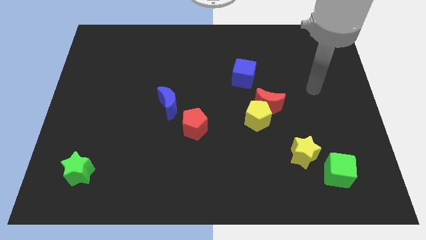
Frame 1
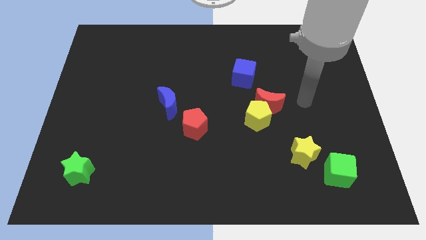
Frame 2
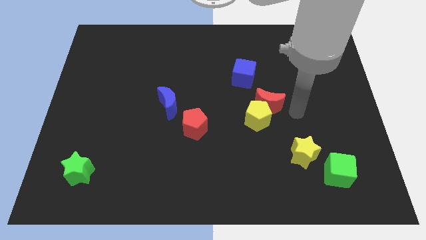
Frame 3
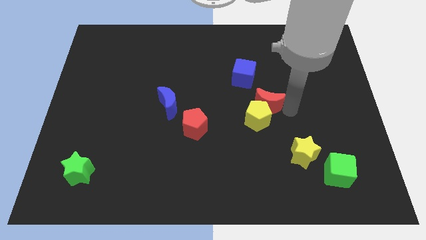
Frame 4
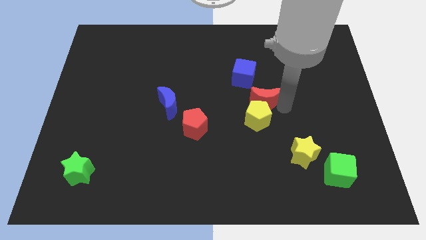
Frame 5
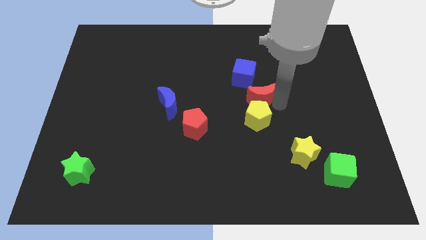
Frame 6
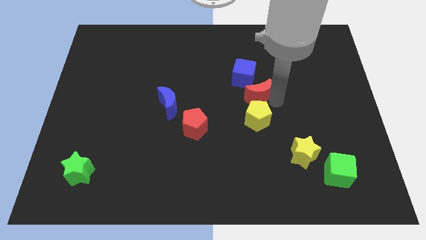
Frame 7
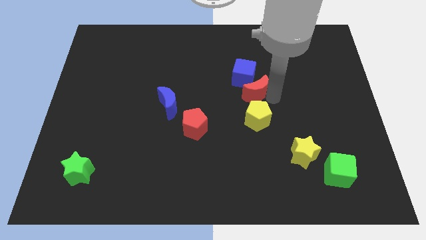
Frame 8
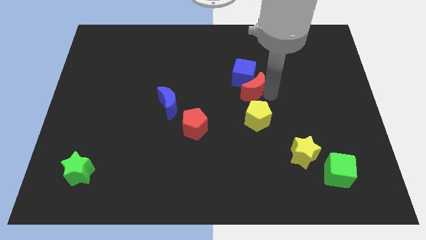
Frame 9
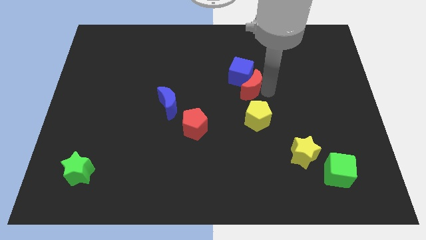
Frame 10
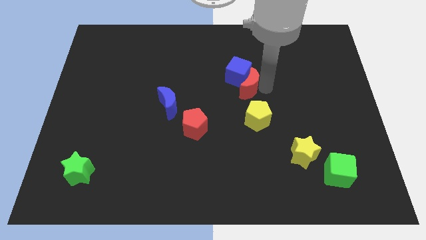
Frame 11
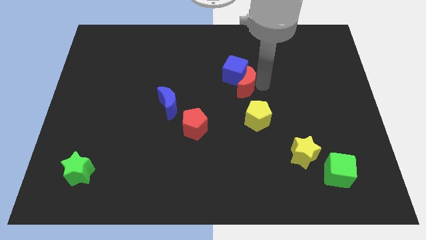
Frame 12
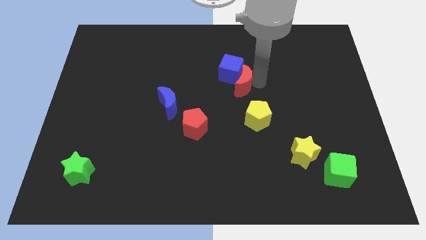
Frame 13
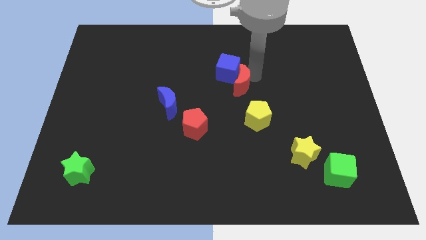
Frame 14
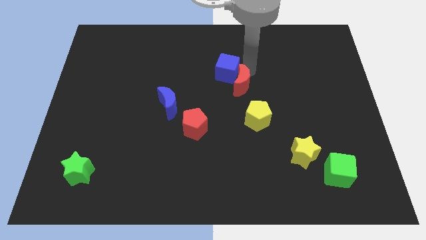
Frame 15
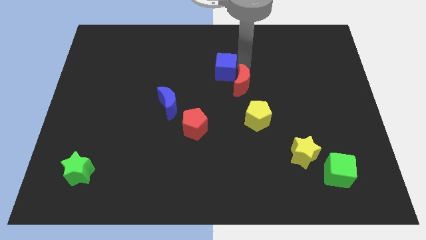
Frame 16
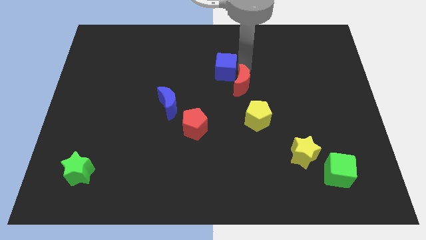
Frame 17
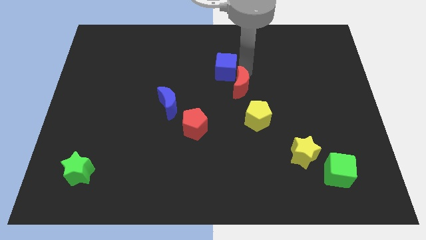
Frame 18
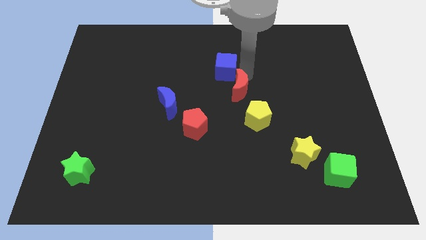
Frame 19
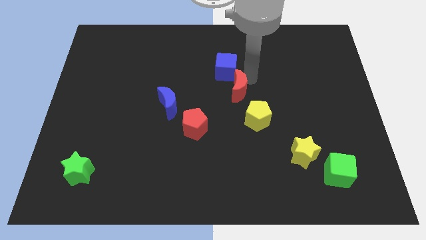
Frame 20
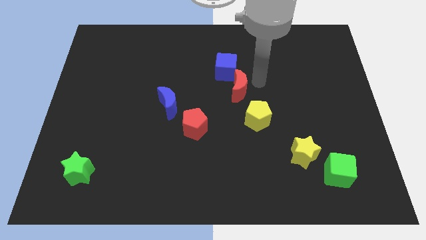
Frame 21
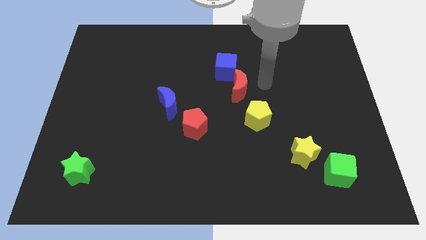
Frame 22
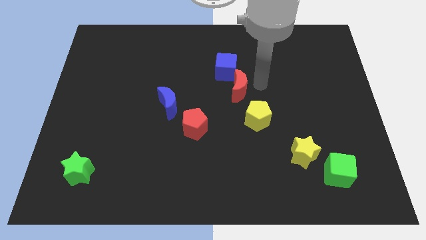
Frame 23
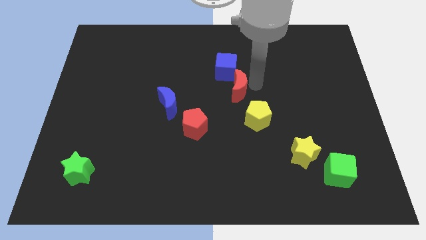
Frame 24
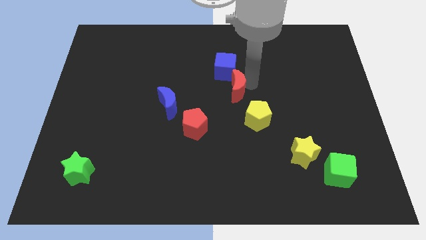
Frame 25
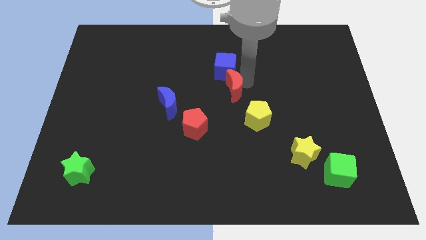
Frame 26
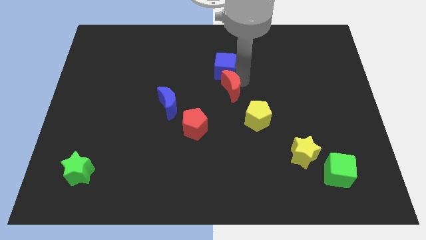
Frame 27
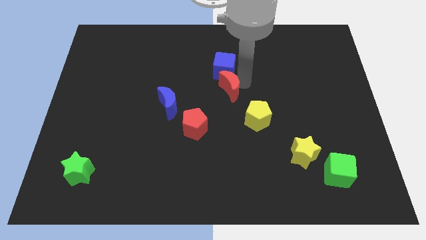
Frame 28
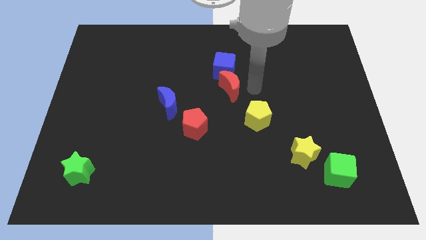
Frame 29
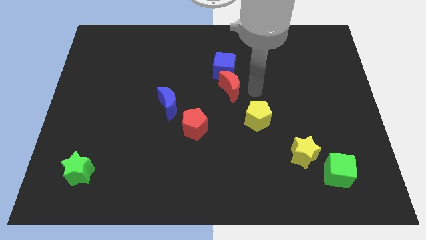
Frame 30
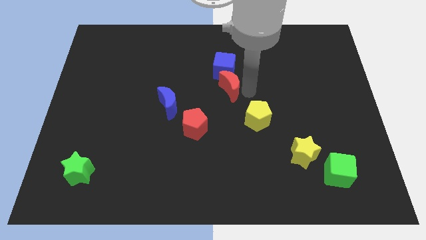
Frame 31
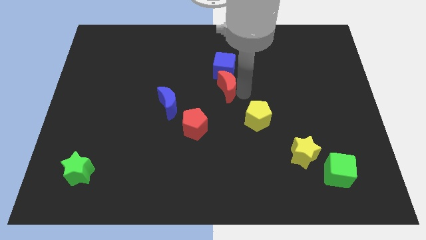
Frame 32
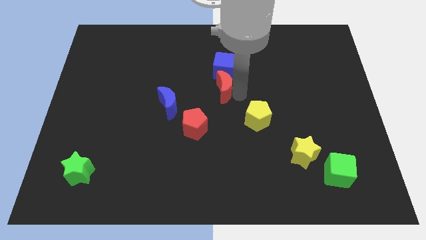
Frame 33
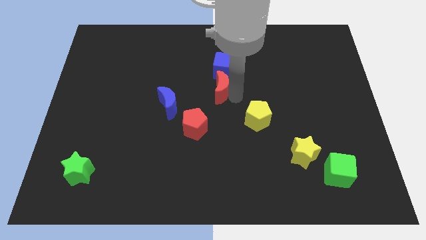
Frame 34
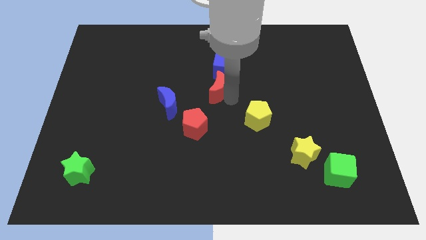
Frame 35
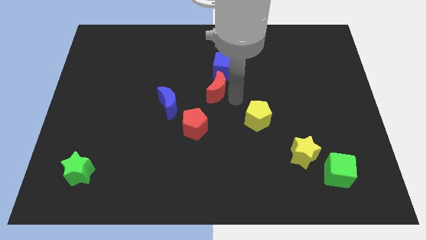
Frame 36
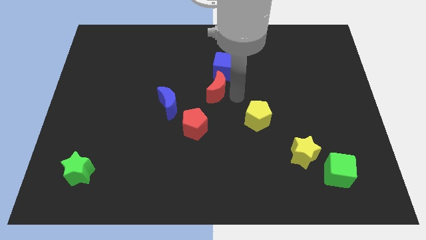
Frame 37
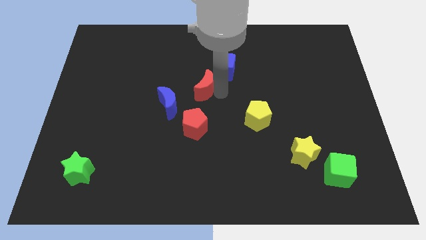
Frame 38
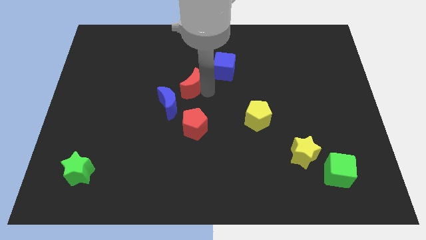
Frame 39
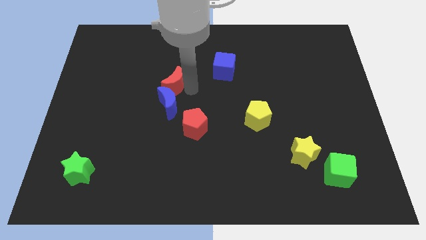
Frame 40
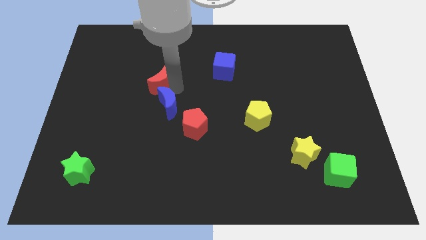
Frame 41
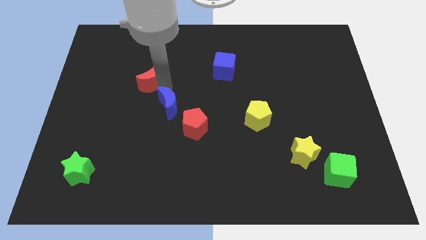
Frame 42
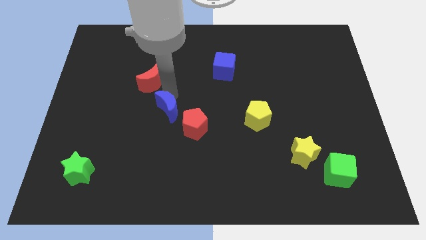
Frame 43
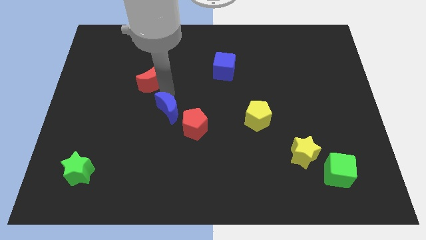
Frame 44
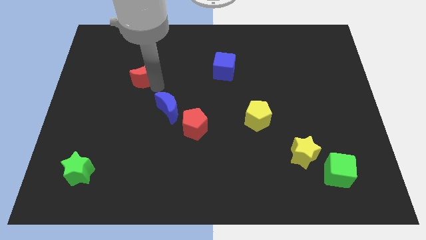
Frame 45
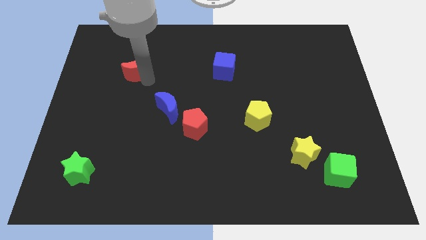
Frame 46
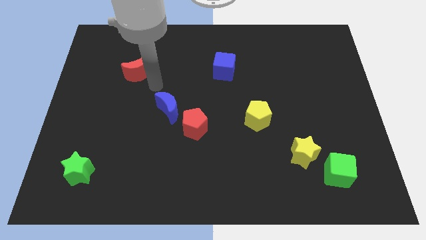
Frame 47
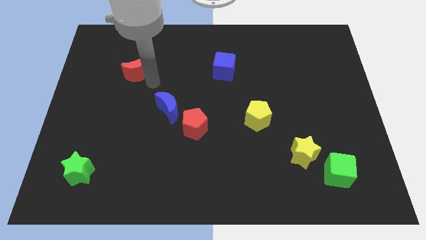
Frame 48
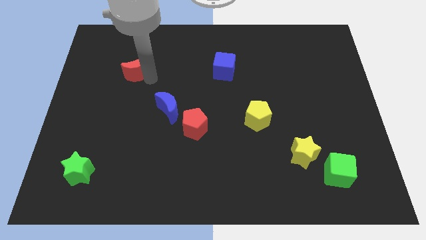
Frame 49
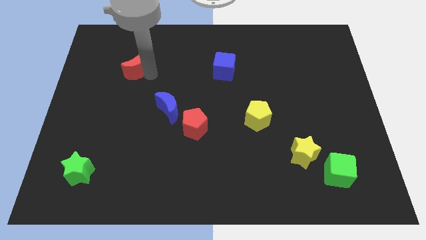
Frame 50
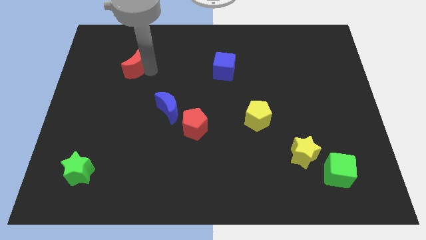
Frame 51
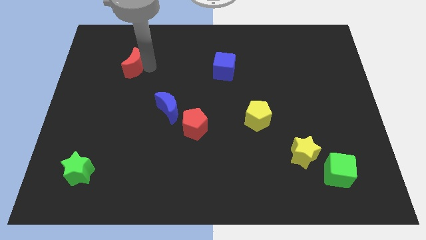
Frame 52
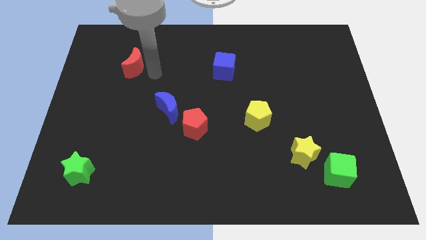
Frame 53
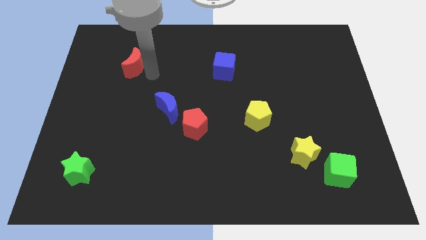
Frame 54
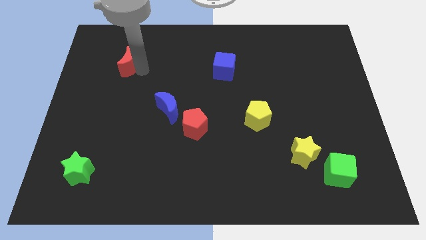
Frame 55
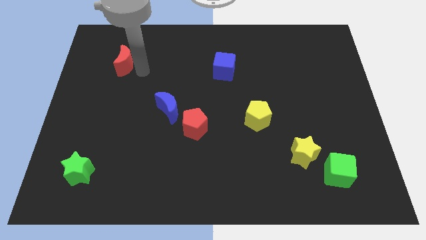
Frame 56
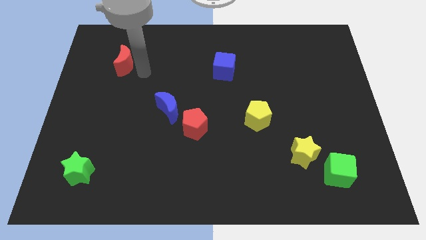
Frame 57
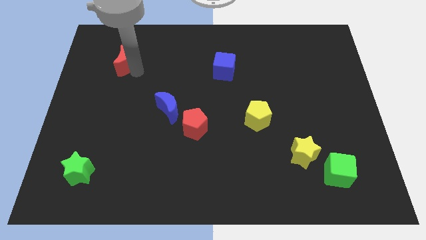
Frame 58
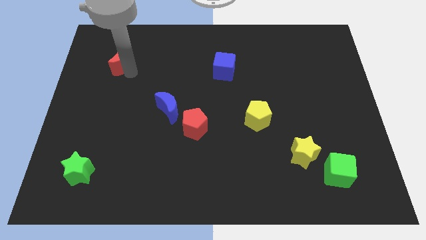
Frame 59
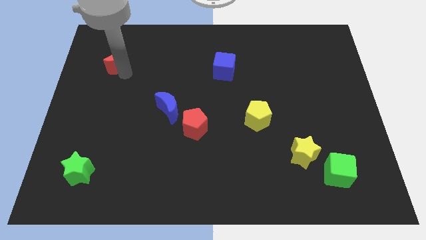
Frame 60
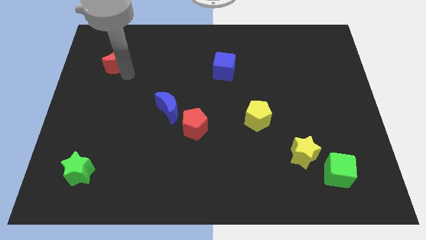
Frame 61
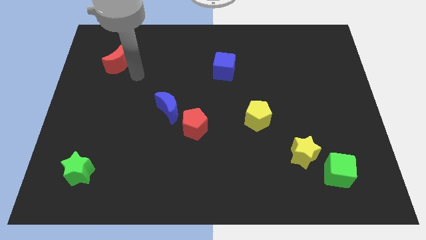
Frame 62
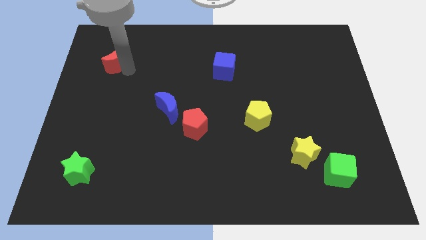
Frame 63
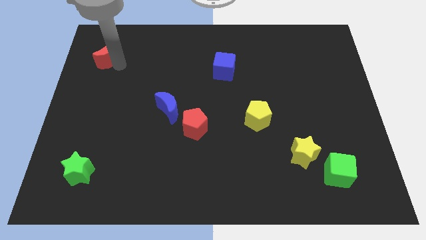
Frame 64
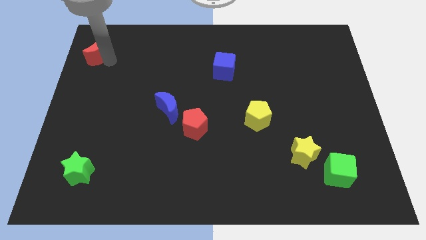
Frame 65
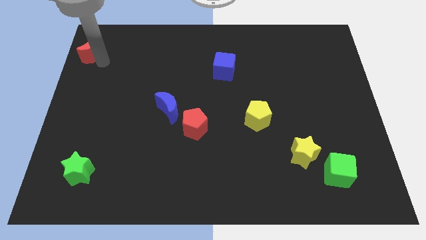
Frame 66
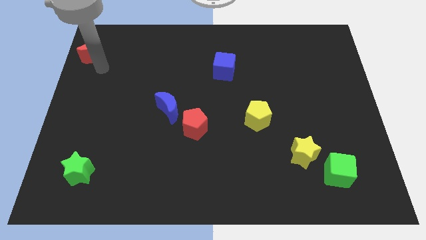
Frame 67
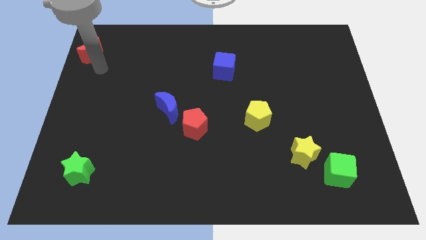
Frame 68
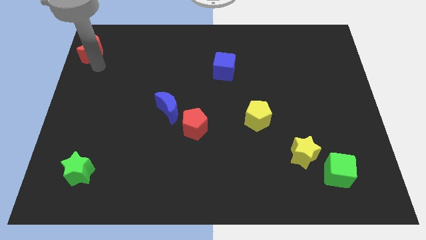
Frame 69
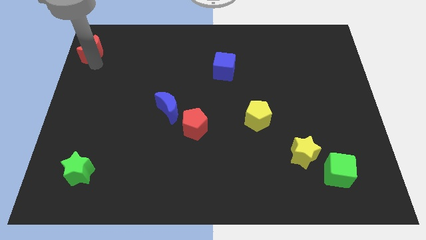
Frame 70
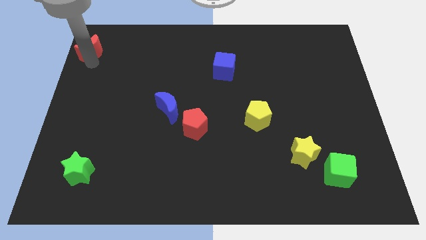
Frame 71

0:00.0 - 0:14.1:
slide the red moon to the top left
